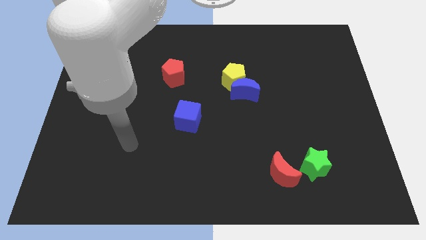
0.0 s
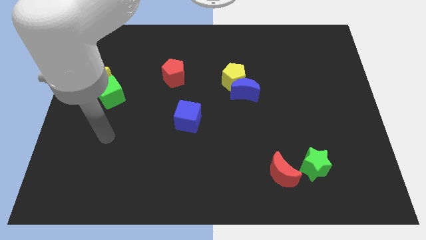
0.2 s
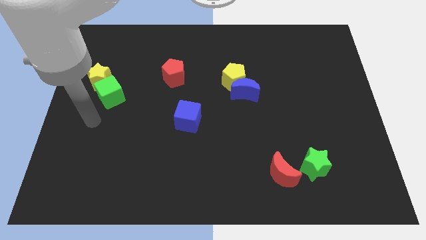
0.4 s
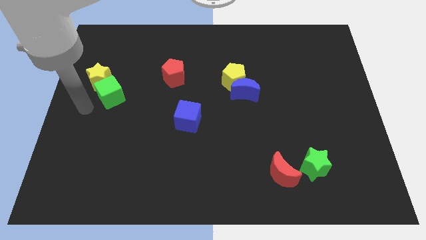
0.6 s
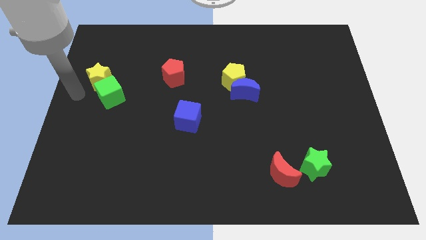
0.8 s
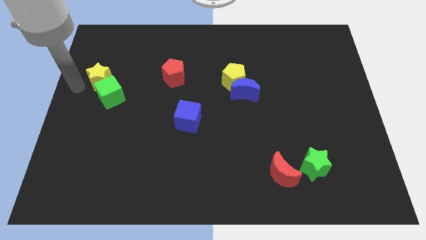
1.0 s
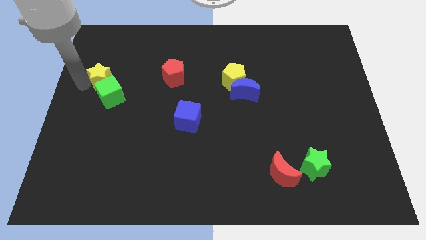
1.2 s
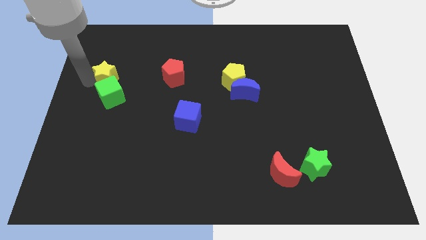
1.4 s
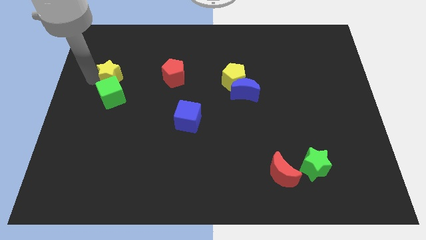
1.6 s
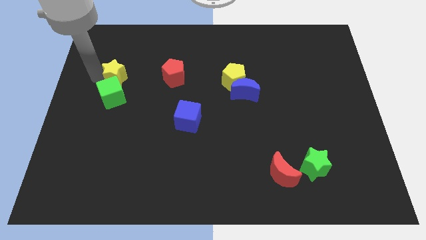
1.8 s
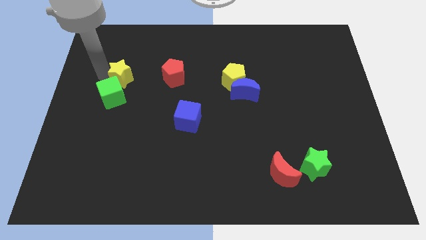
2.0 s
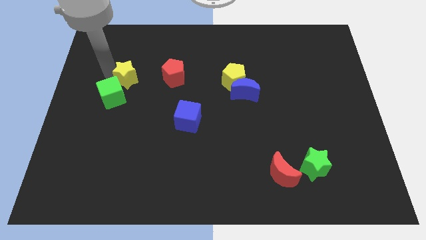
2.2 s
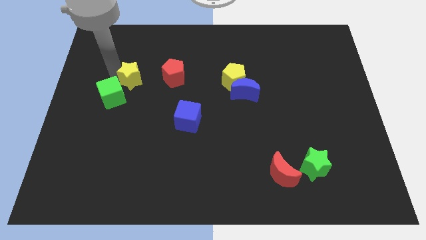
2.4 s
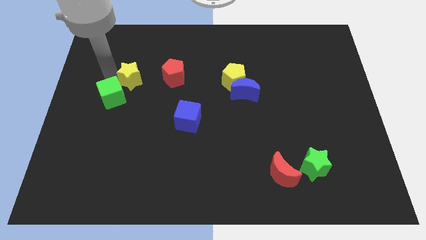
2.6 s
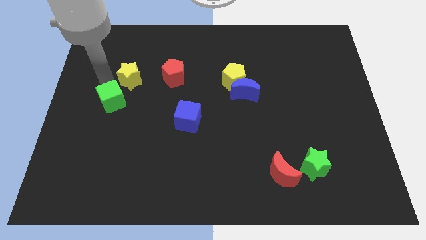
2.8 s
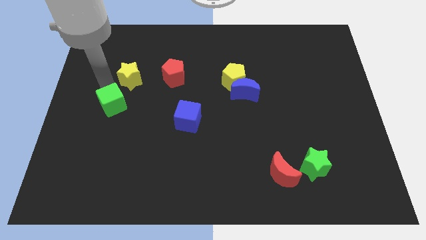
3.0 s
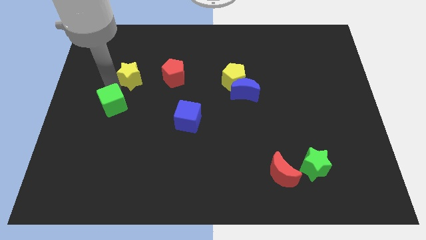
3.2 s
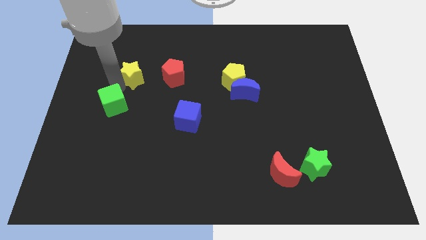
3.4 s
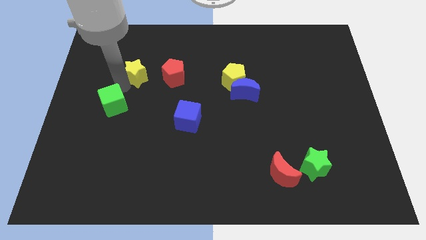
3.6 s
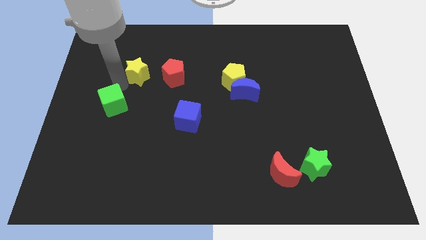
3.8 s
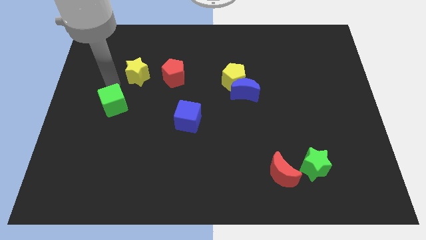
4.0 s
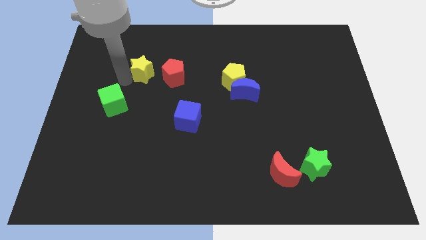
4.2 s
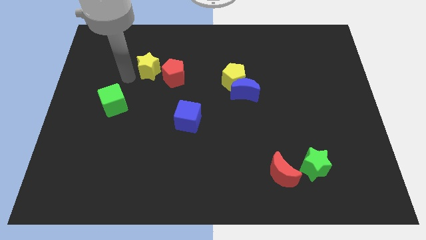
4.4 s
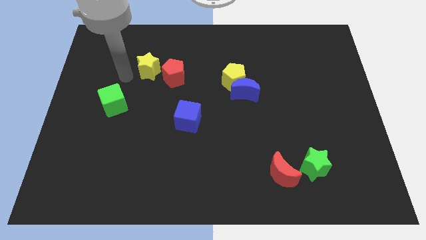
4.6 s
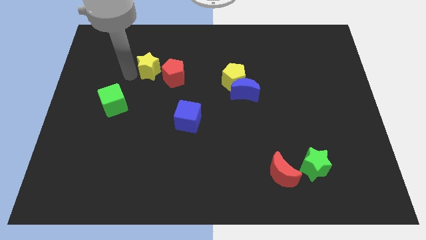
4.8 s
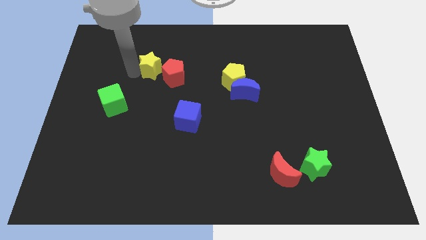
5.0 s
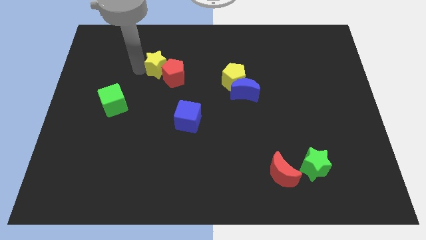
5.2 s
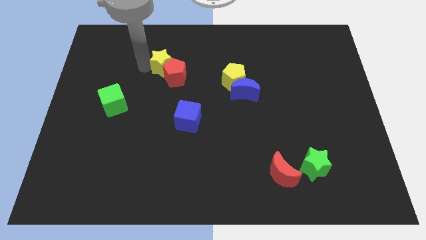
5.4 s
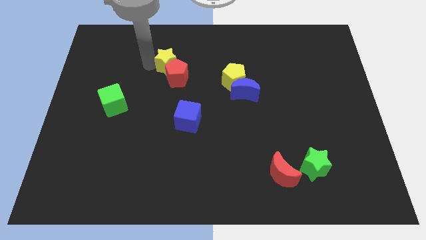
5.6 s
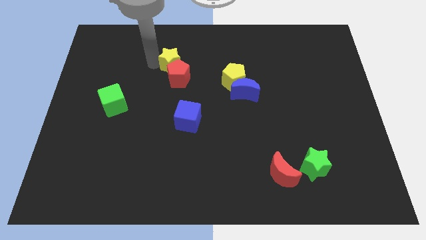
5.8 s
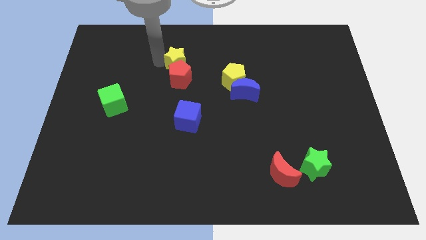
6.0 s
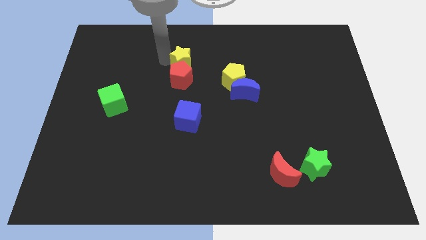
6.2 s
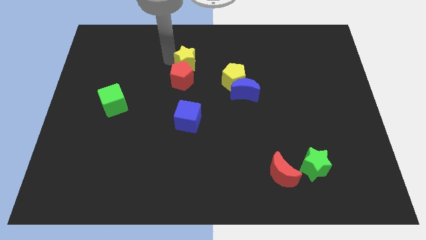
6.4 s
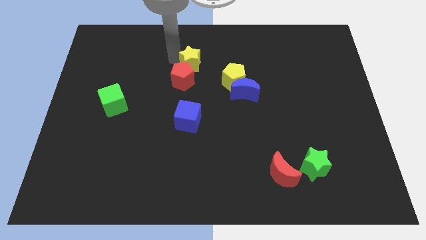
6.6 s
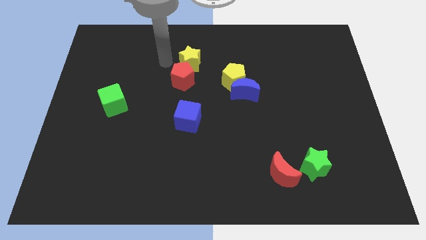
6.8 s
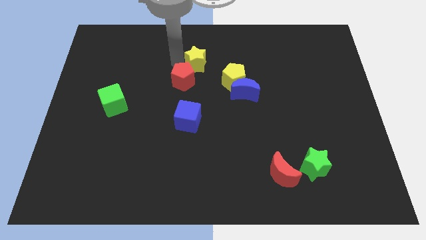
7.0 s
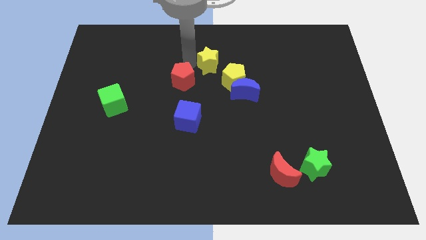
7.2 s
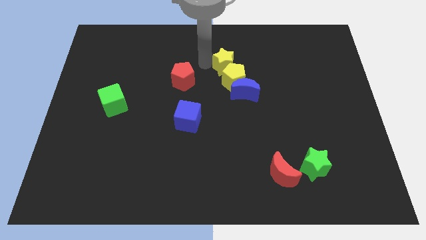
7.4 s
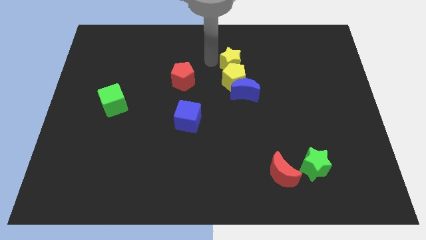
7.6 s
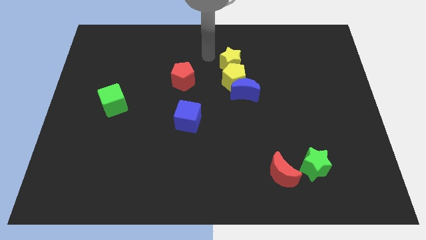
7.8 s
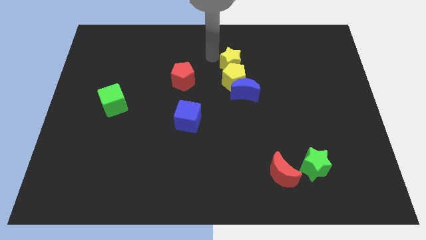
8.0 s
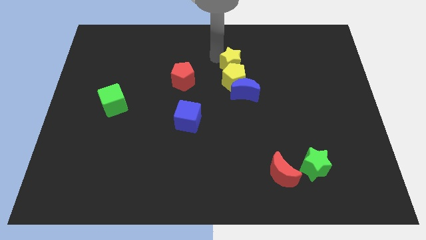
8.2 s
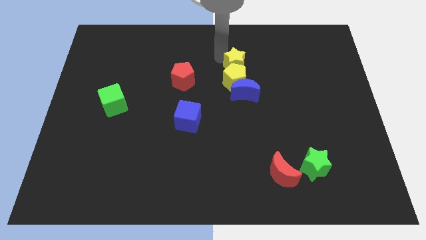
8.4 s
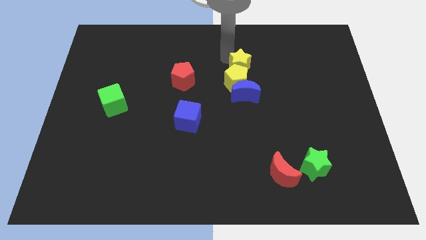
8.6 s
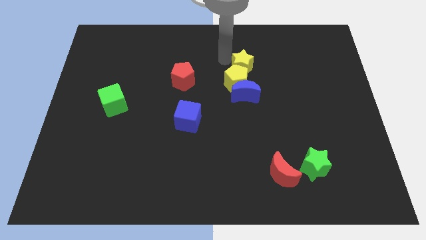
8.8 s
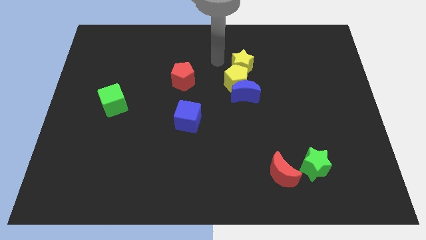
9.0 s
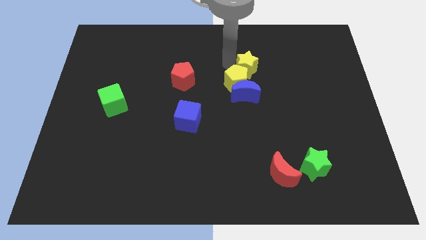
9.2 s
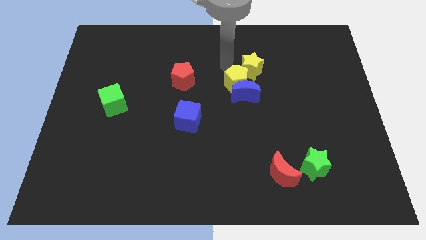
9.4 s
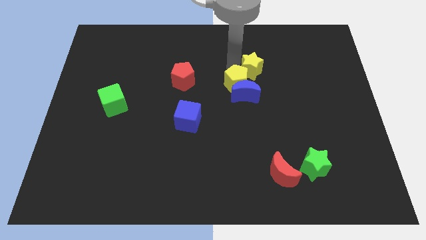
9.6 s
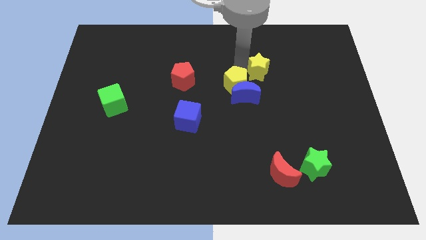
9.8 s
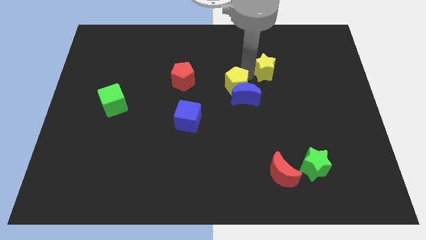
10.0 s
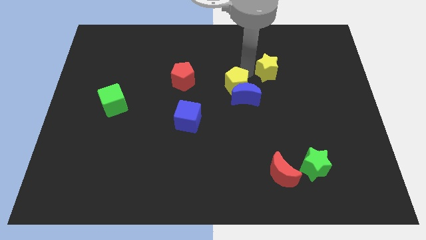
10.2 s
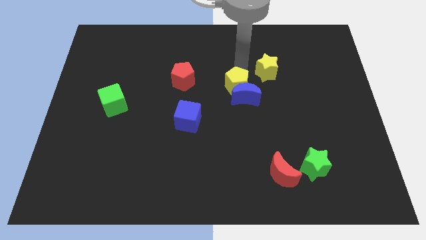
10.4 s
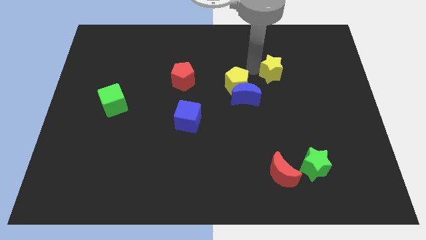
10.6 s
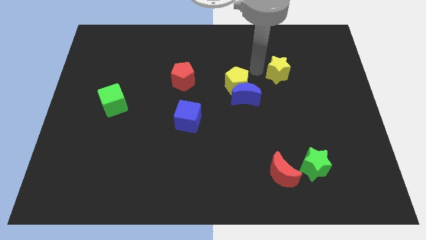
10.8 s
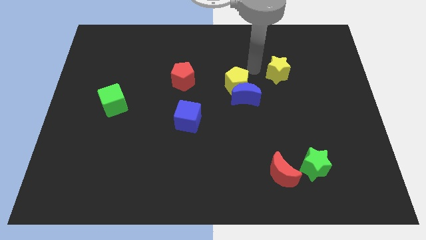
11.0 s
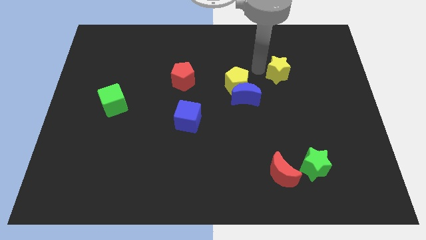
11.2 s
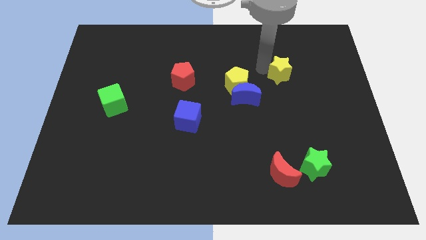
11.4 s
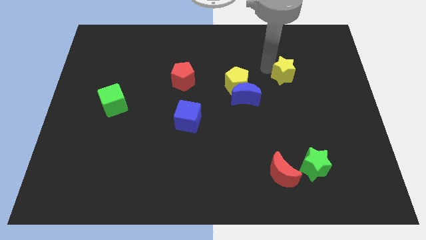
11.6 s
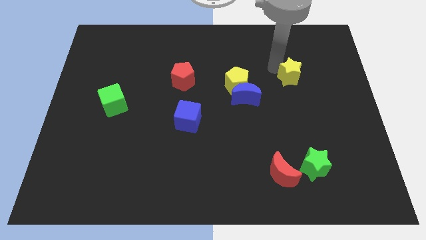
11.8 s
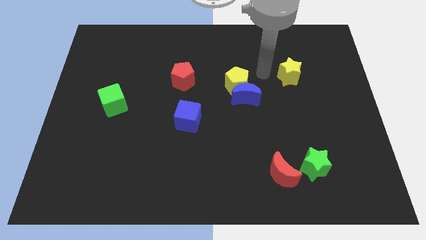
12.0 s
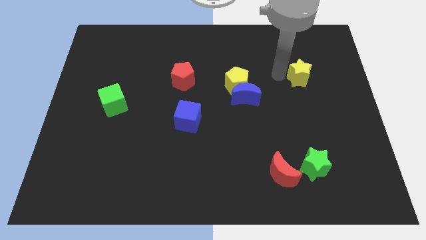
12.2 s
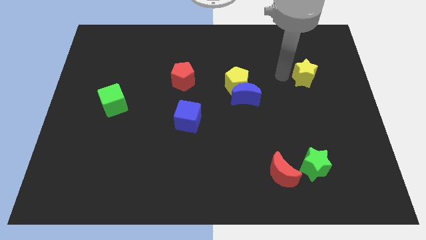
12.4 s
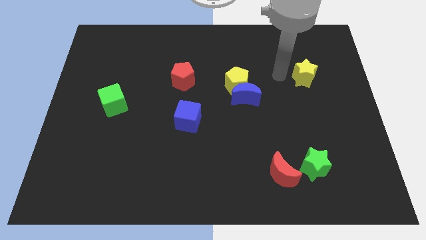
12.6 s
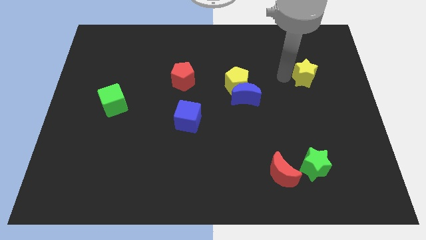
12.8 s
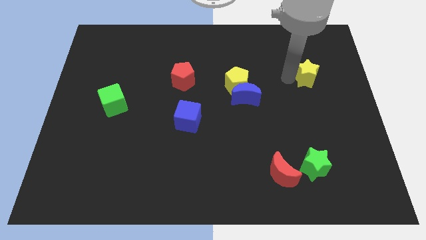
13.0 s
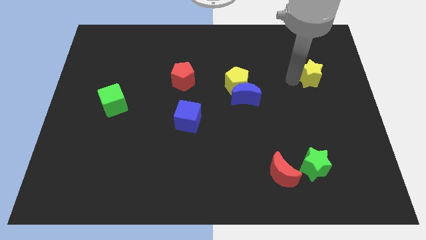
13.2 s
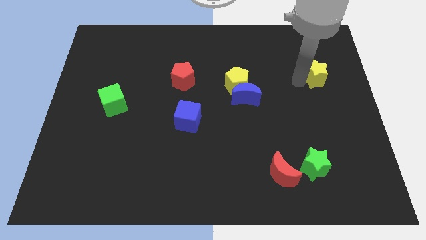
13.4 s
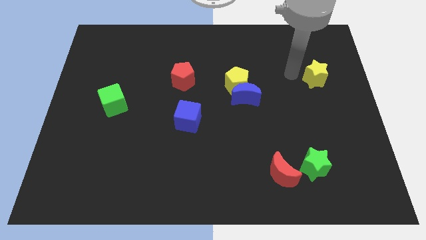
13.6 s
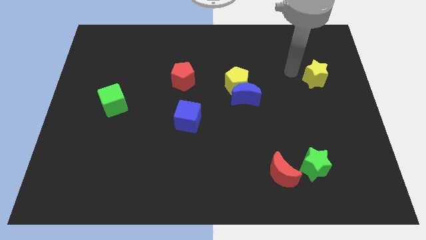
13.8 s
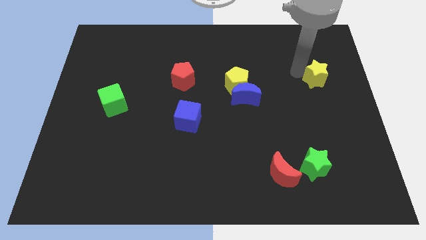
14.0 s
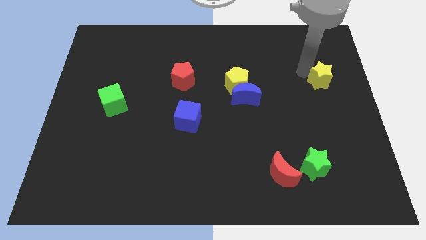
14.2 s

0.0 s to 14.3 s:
put the yellow star to the right side
